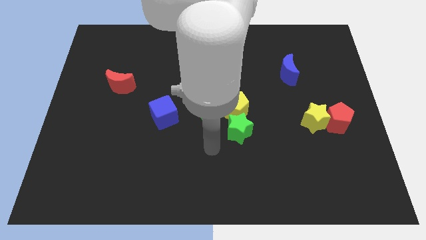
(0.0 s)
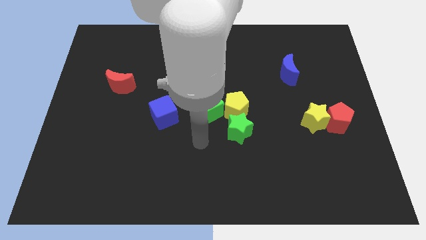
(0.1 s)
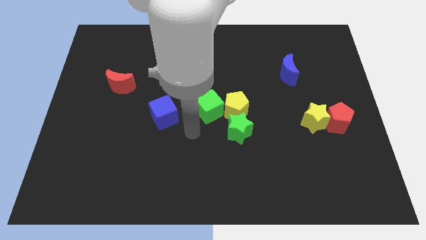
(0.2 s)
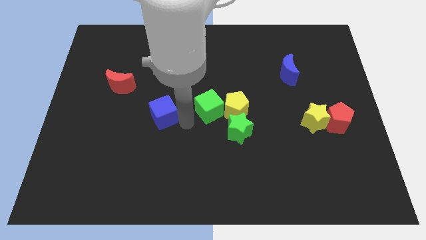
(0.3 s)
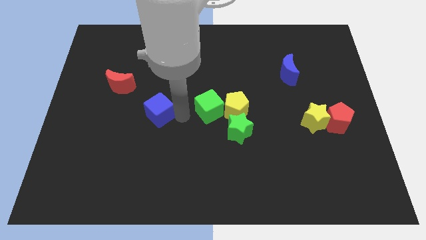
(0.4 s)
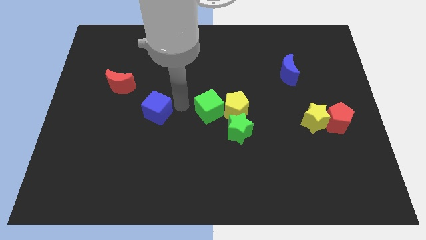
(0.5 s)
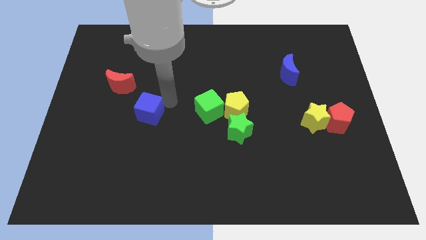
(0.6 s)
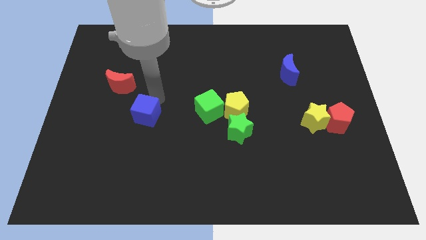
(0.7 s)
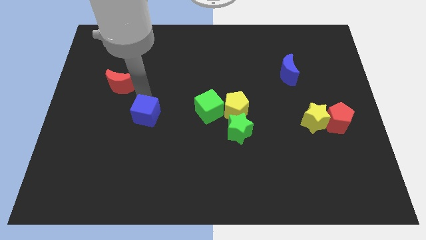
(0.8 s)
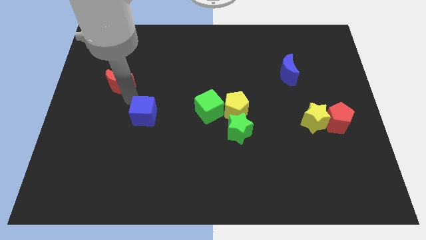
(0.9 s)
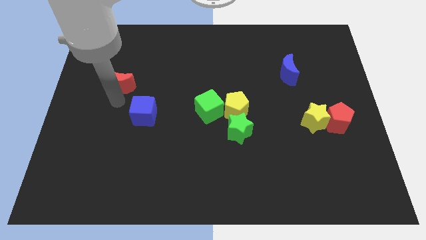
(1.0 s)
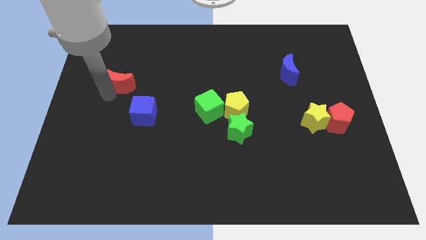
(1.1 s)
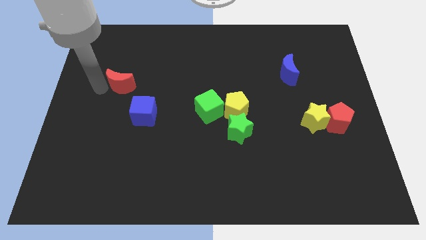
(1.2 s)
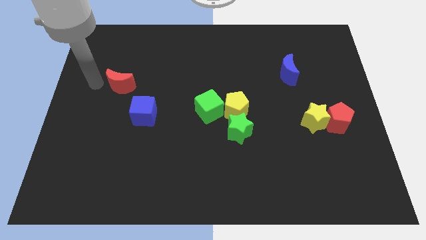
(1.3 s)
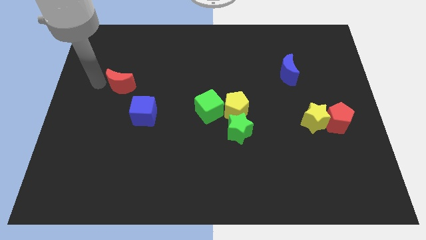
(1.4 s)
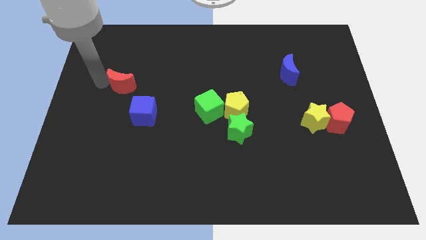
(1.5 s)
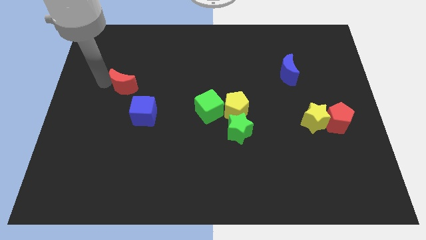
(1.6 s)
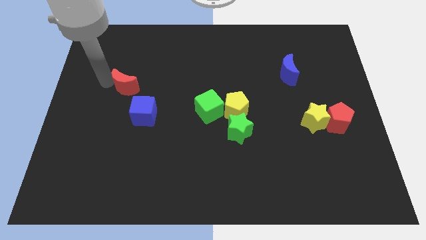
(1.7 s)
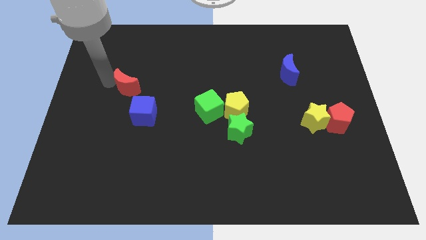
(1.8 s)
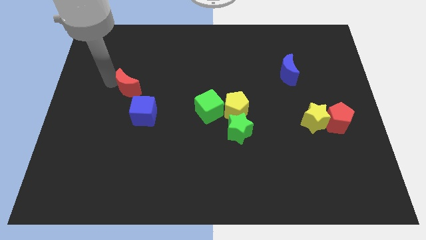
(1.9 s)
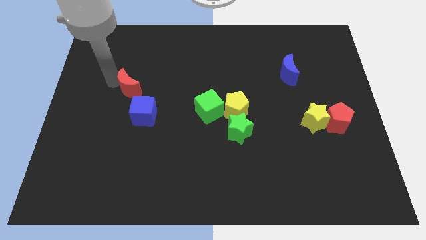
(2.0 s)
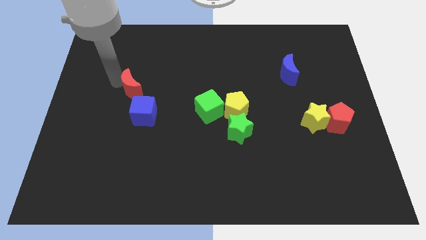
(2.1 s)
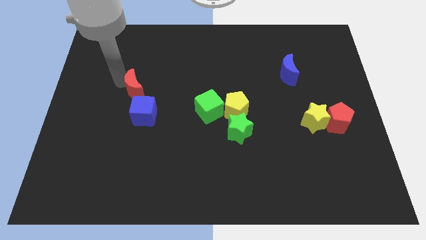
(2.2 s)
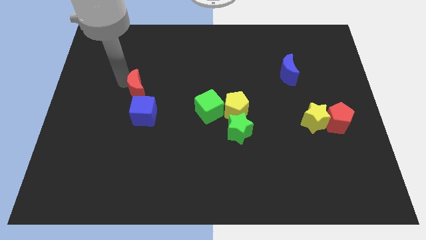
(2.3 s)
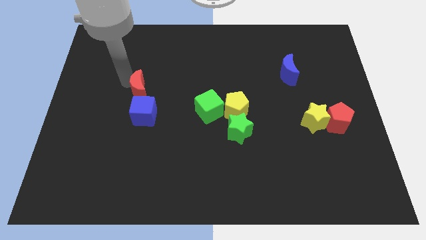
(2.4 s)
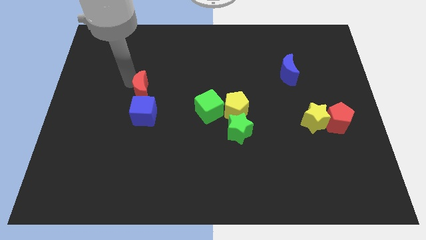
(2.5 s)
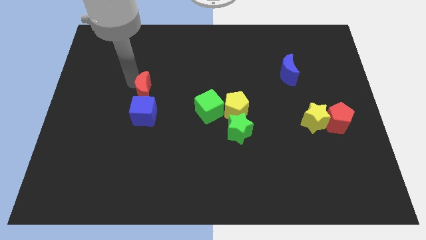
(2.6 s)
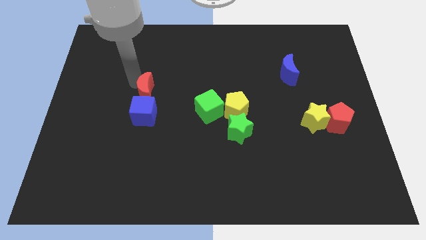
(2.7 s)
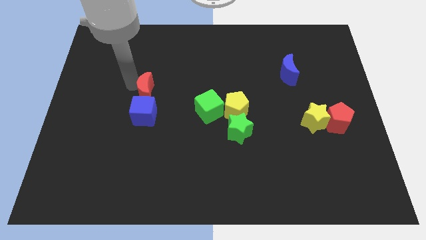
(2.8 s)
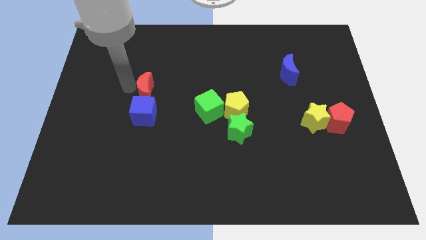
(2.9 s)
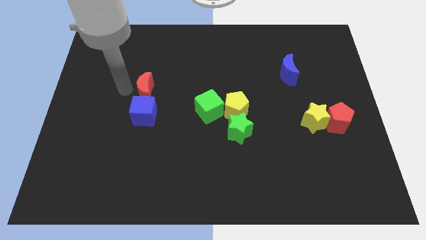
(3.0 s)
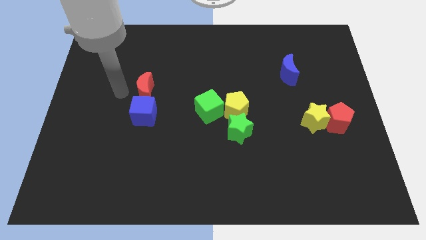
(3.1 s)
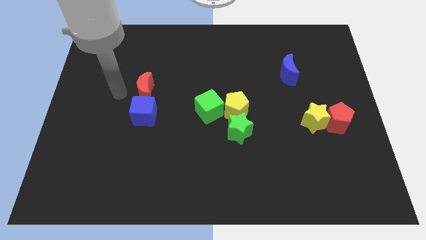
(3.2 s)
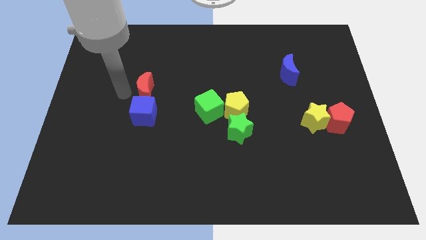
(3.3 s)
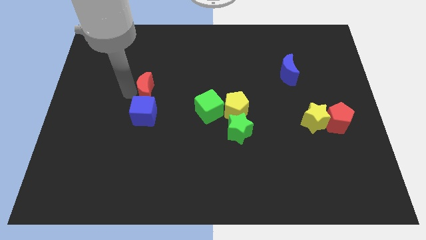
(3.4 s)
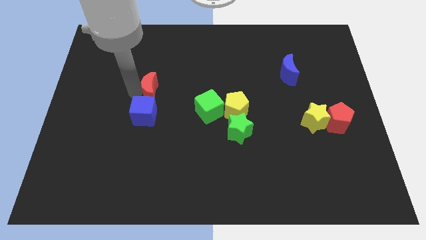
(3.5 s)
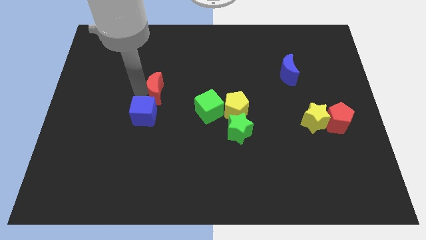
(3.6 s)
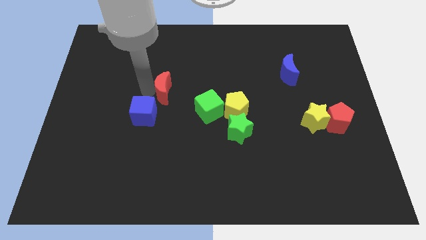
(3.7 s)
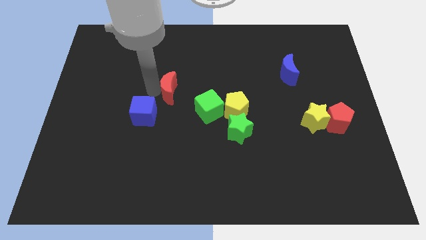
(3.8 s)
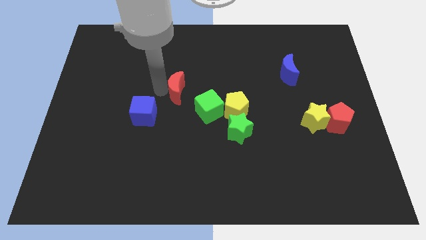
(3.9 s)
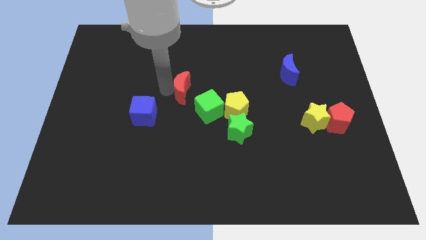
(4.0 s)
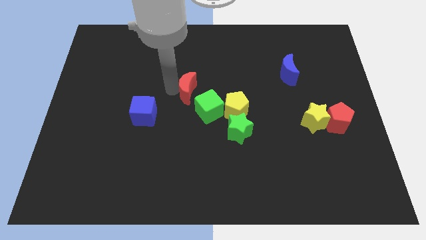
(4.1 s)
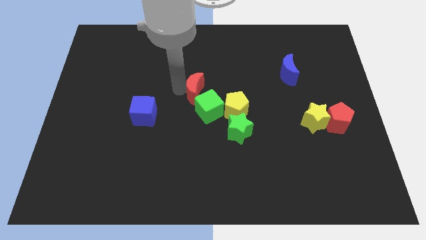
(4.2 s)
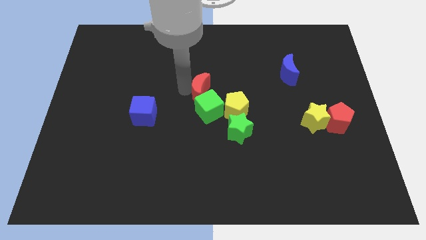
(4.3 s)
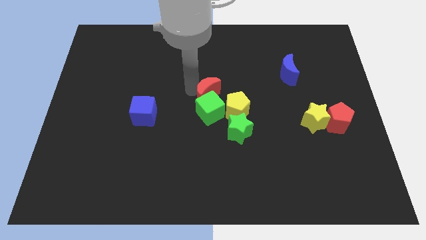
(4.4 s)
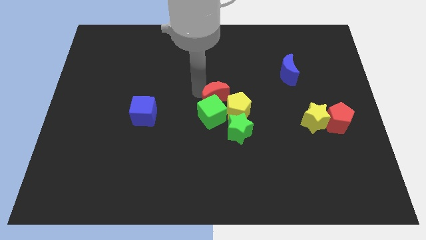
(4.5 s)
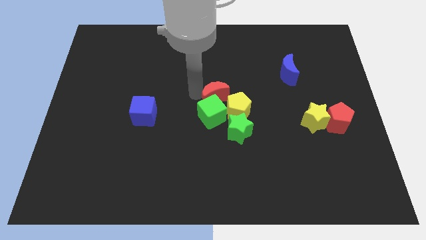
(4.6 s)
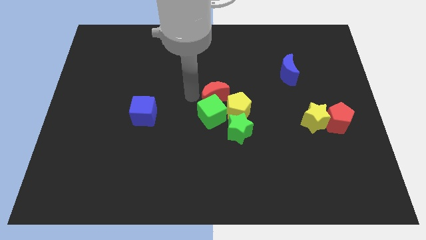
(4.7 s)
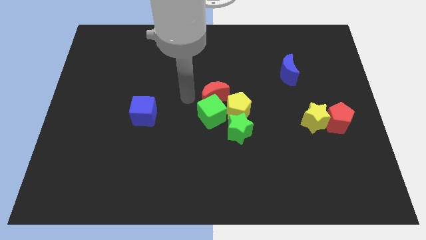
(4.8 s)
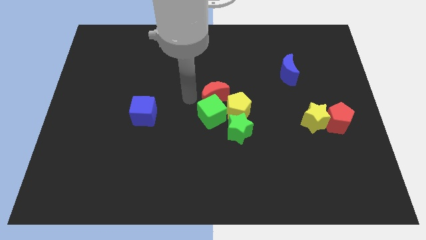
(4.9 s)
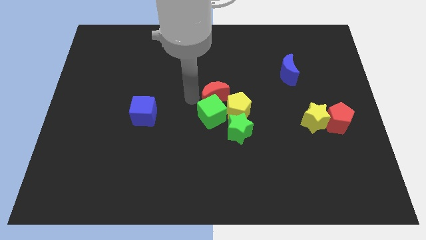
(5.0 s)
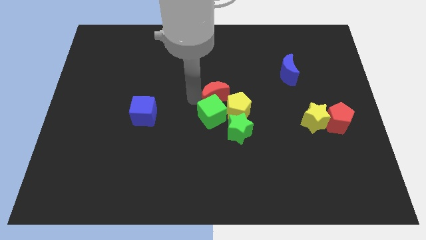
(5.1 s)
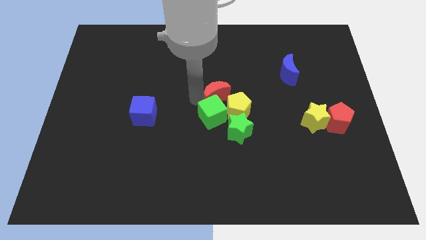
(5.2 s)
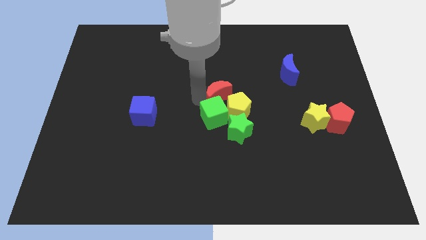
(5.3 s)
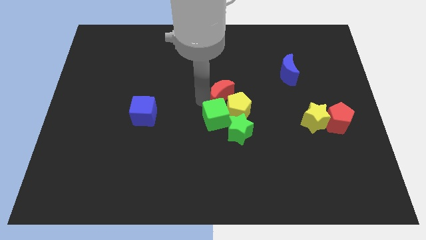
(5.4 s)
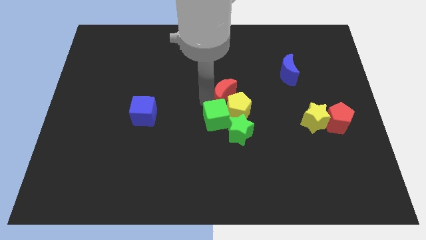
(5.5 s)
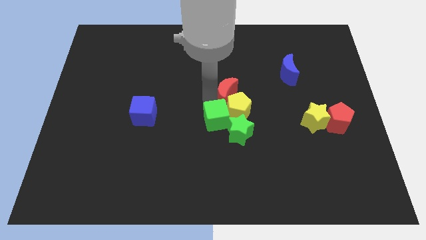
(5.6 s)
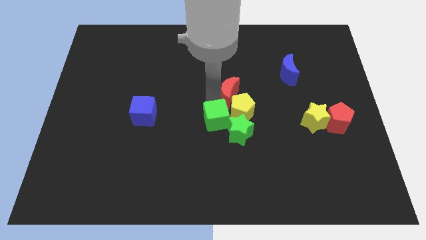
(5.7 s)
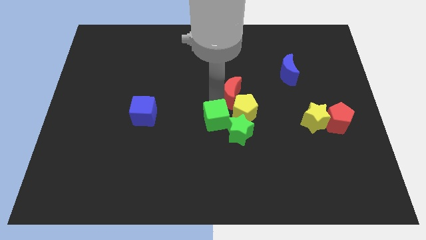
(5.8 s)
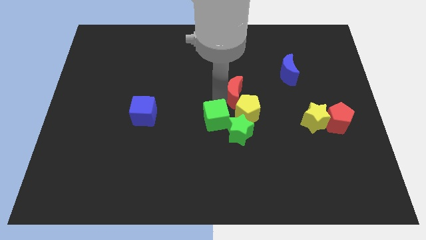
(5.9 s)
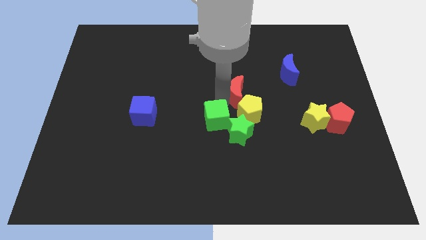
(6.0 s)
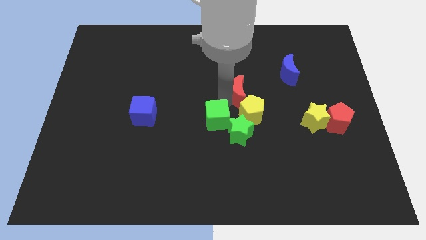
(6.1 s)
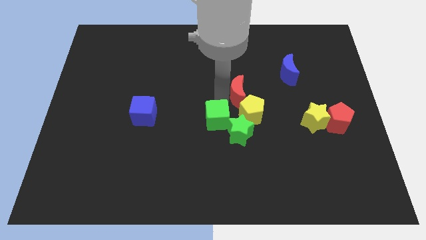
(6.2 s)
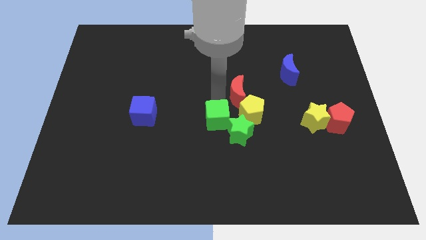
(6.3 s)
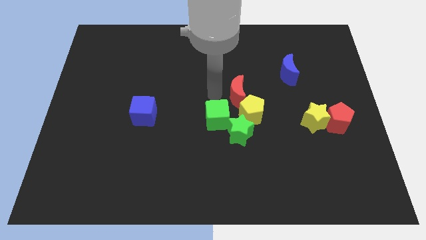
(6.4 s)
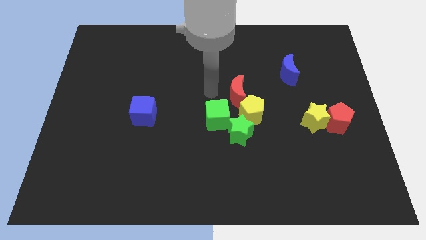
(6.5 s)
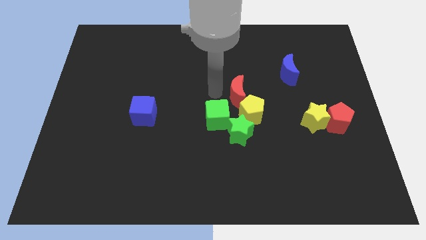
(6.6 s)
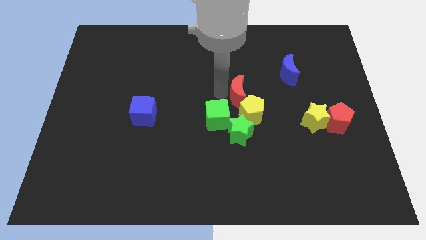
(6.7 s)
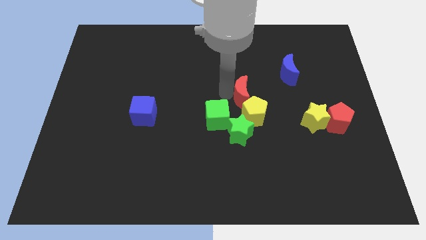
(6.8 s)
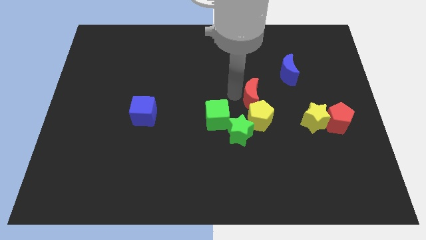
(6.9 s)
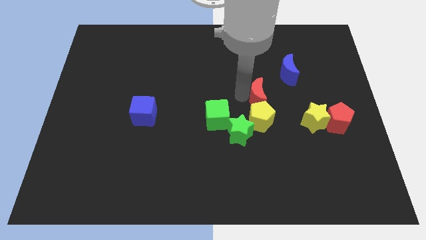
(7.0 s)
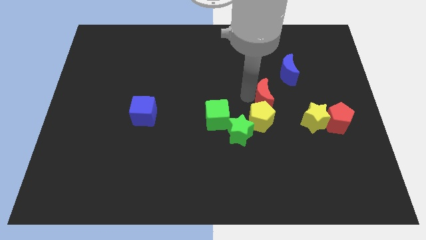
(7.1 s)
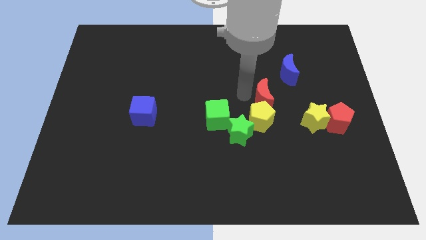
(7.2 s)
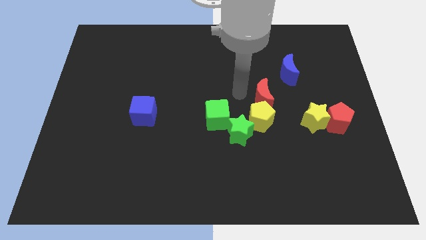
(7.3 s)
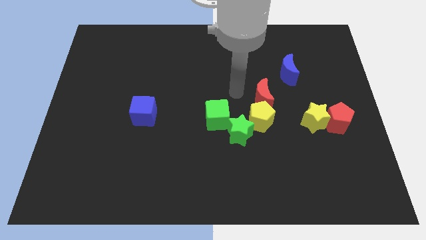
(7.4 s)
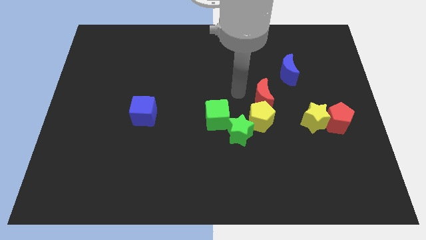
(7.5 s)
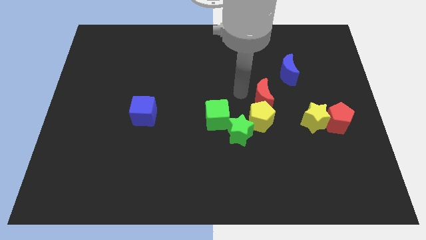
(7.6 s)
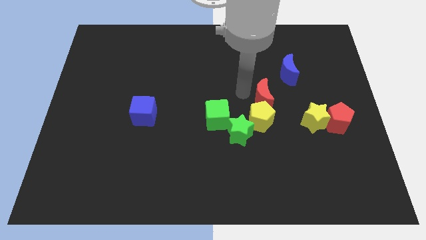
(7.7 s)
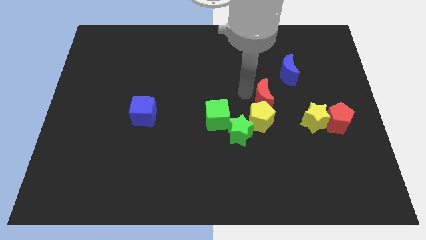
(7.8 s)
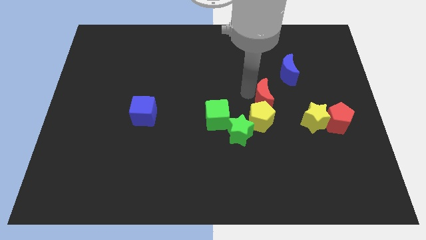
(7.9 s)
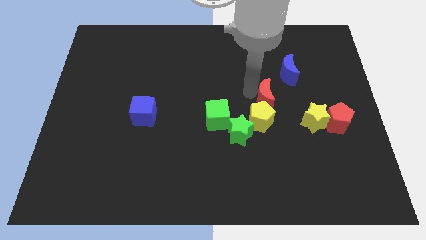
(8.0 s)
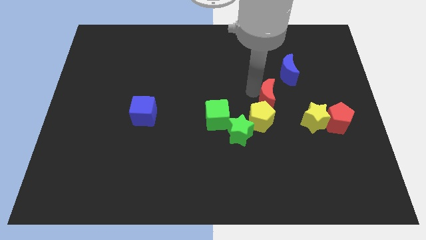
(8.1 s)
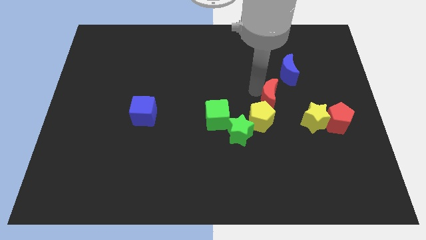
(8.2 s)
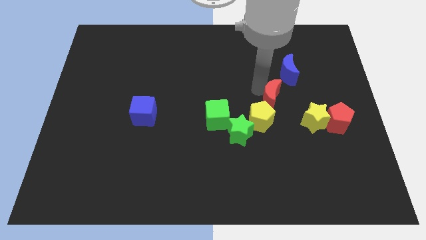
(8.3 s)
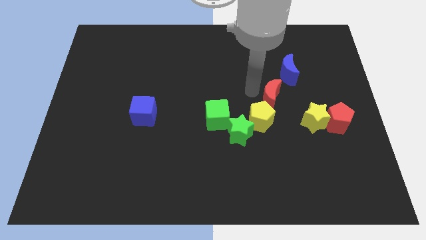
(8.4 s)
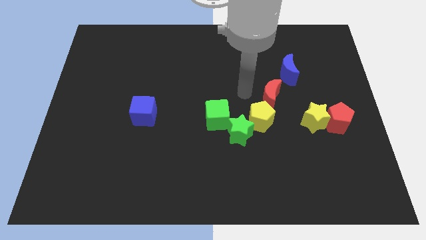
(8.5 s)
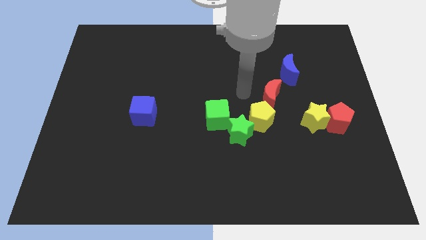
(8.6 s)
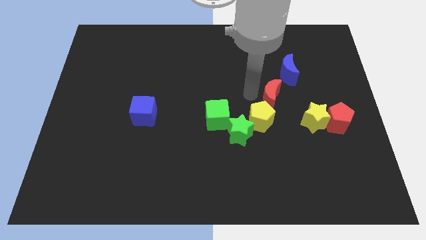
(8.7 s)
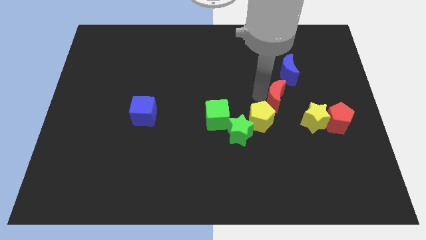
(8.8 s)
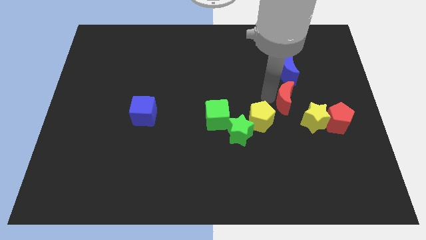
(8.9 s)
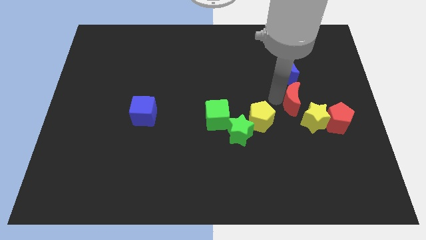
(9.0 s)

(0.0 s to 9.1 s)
move the red moon diagonally up and to the left of the red pentagon
